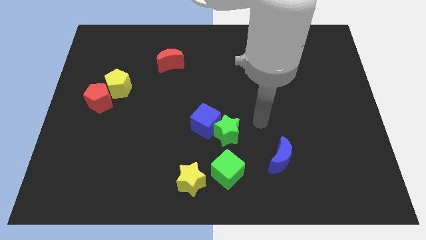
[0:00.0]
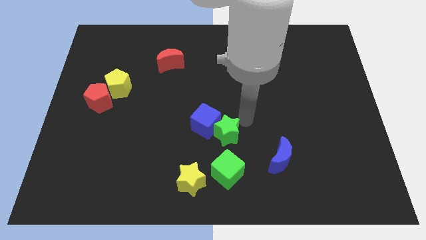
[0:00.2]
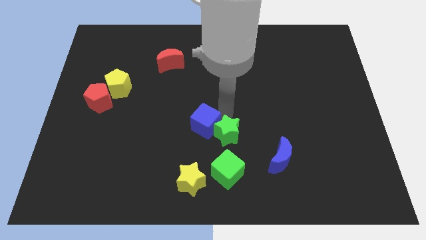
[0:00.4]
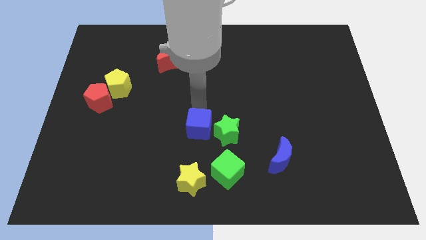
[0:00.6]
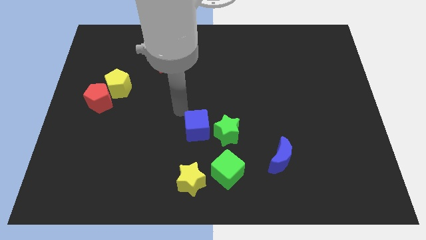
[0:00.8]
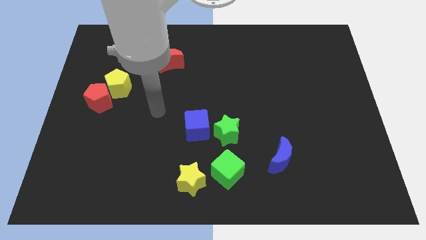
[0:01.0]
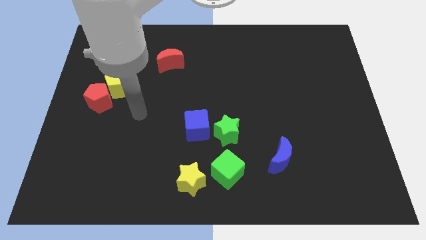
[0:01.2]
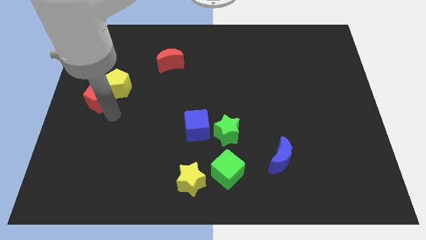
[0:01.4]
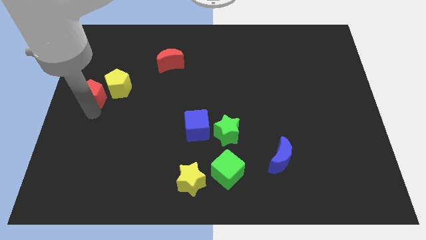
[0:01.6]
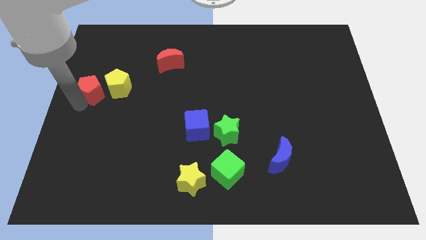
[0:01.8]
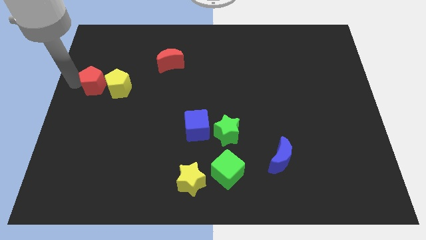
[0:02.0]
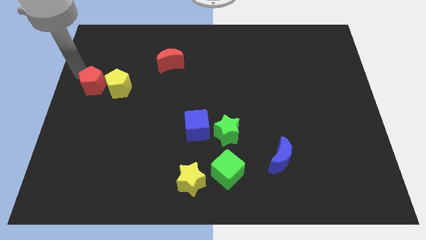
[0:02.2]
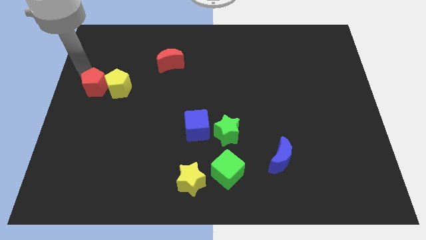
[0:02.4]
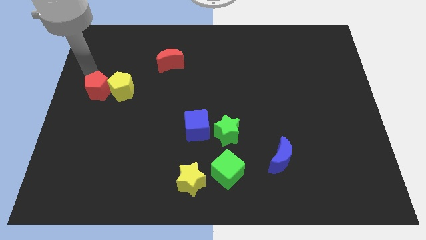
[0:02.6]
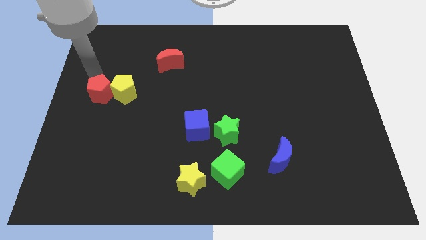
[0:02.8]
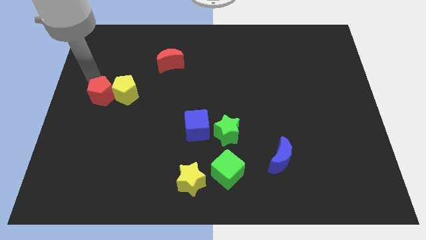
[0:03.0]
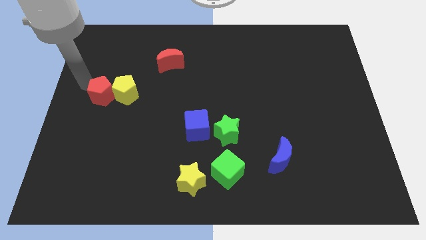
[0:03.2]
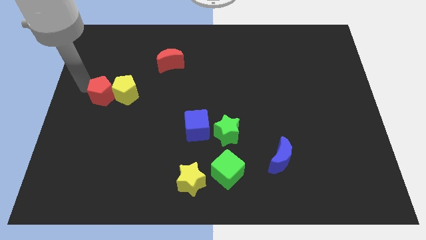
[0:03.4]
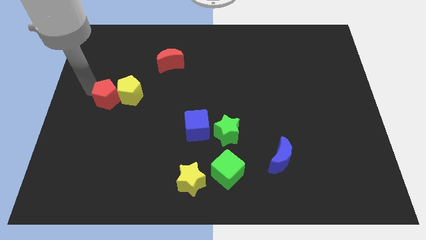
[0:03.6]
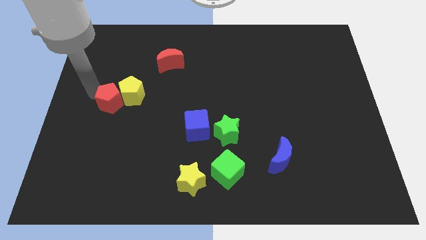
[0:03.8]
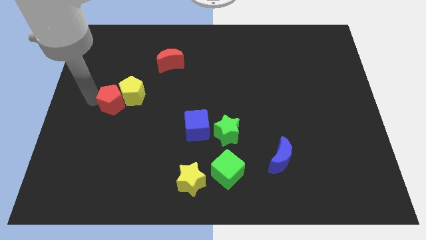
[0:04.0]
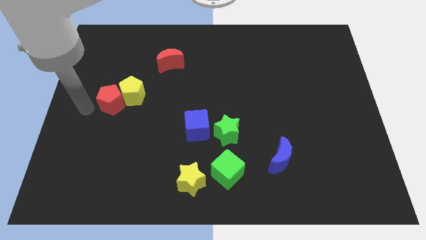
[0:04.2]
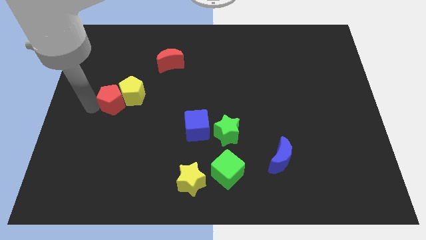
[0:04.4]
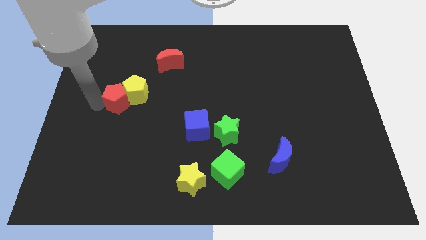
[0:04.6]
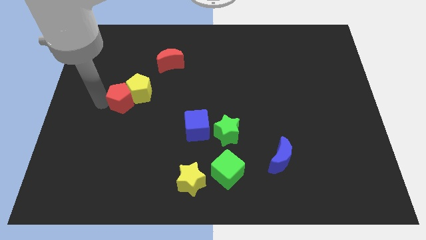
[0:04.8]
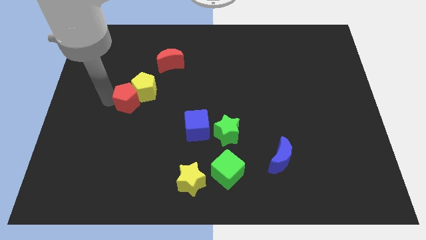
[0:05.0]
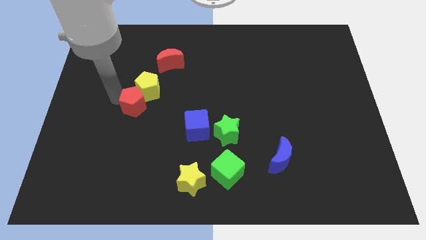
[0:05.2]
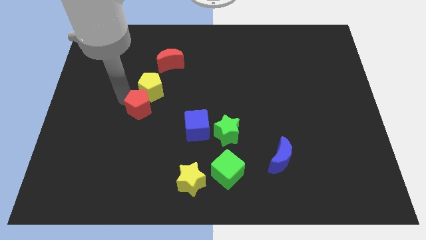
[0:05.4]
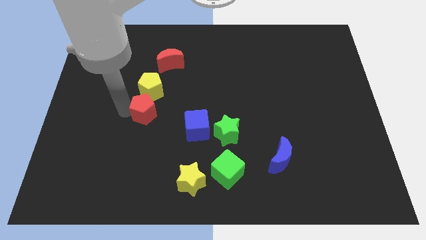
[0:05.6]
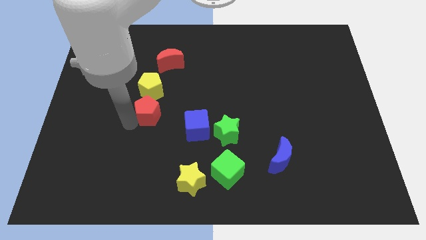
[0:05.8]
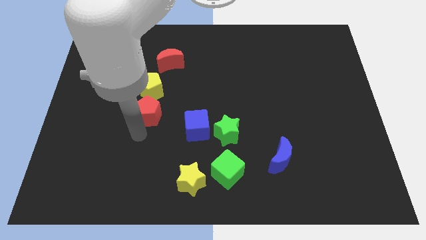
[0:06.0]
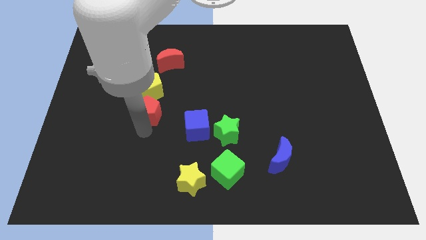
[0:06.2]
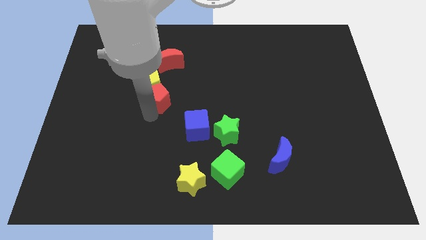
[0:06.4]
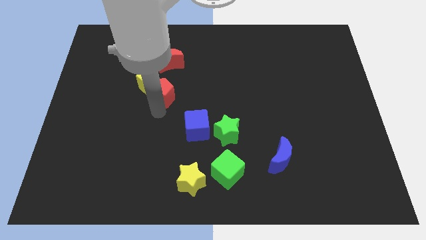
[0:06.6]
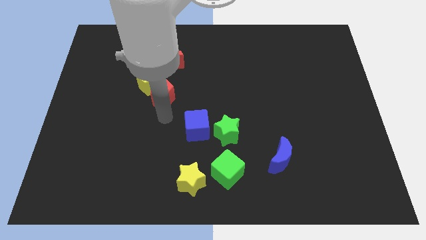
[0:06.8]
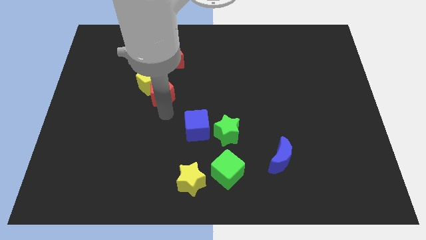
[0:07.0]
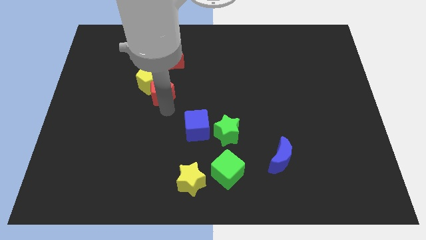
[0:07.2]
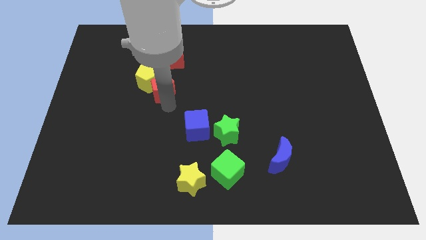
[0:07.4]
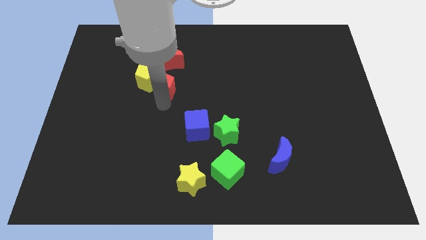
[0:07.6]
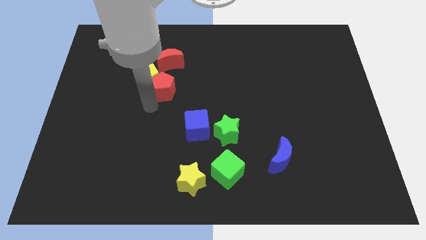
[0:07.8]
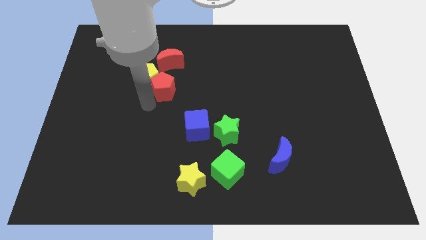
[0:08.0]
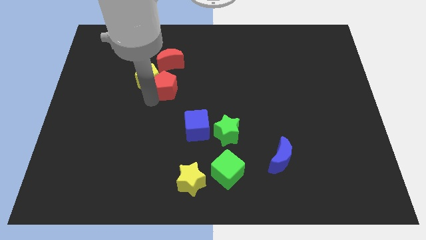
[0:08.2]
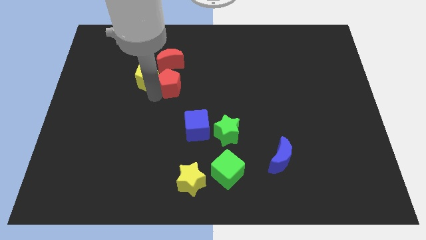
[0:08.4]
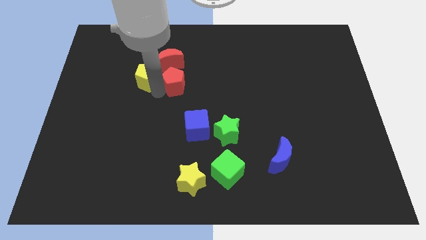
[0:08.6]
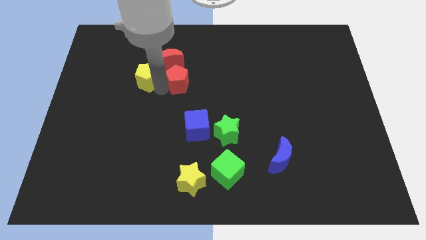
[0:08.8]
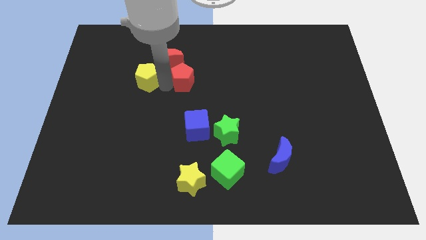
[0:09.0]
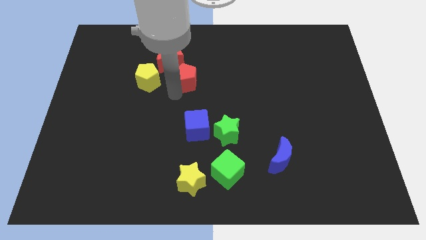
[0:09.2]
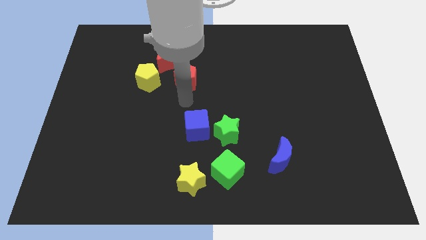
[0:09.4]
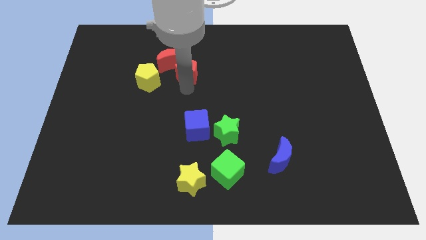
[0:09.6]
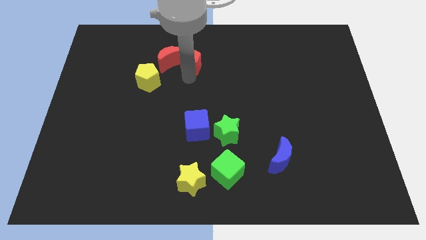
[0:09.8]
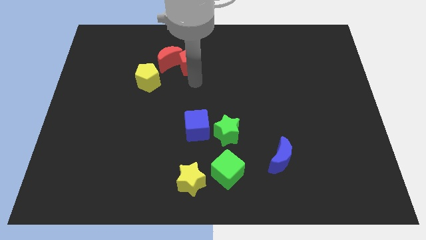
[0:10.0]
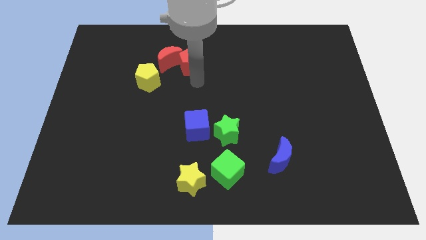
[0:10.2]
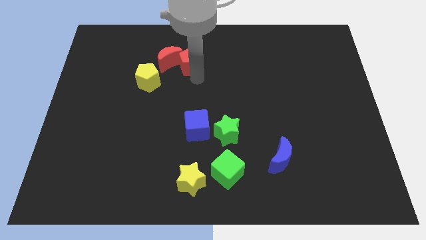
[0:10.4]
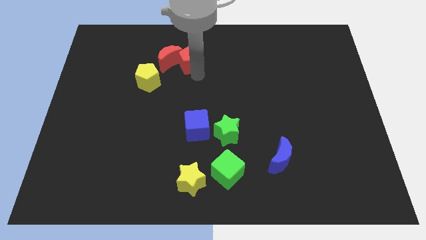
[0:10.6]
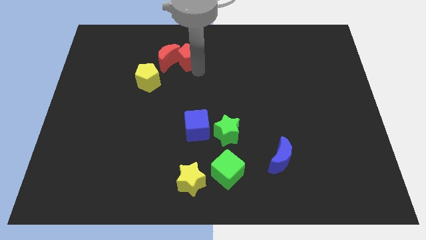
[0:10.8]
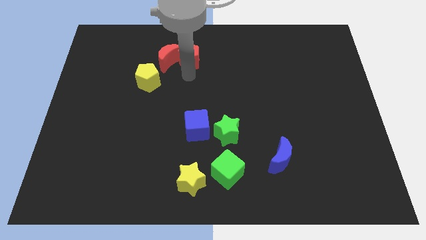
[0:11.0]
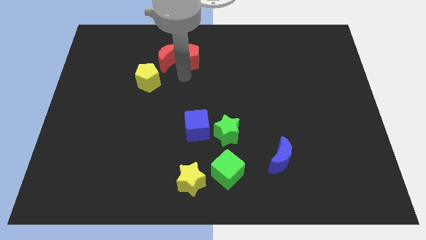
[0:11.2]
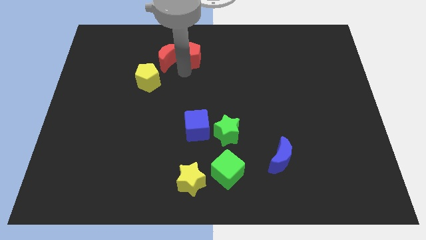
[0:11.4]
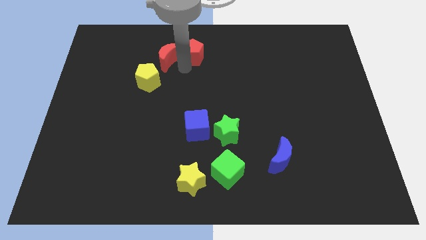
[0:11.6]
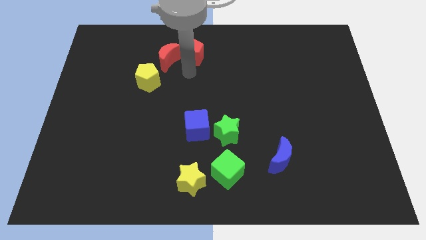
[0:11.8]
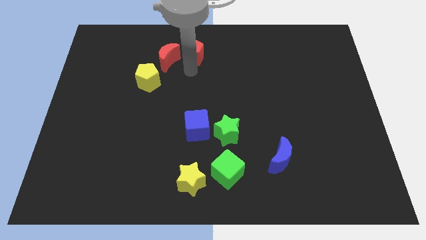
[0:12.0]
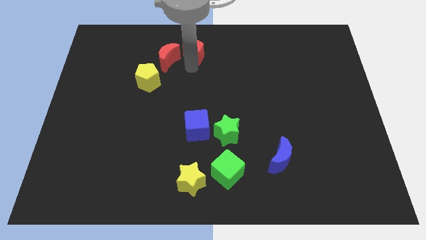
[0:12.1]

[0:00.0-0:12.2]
put the red pentagon to the top side
